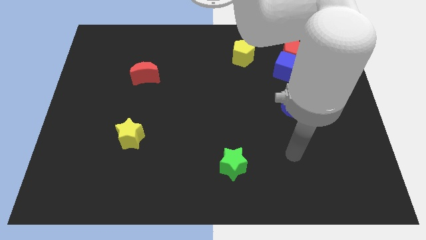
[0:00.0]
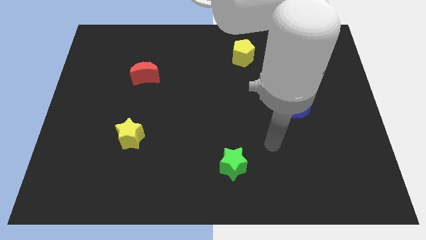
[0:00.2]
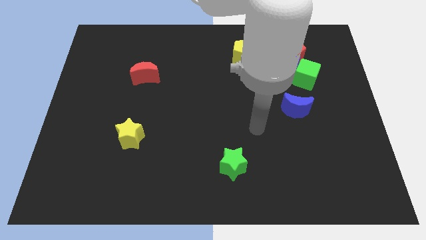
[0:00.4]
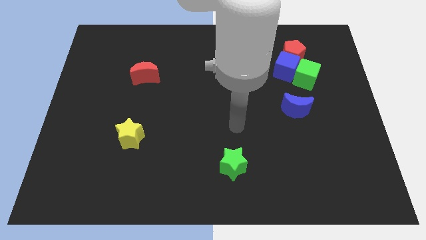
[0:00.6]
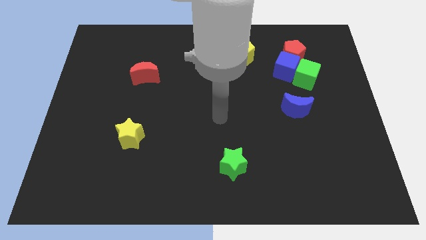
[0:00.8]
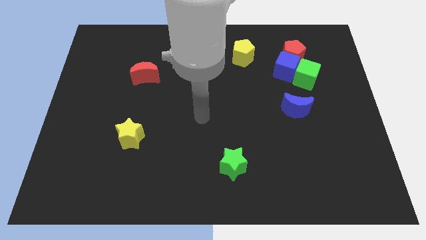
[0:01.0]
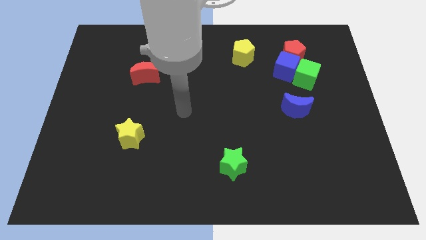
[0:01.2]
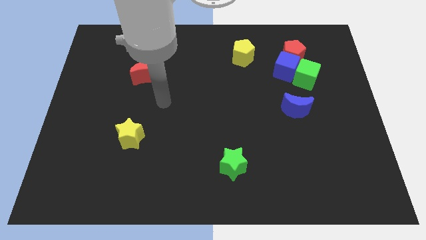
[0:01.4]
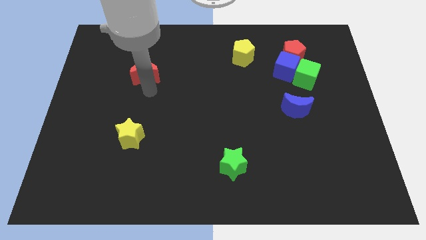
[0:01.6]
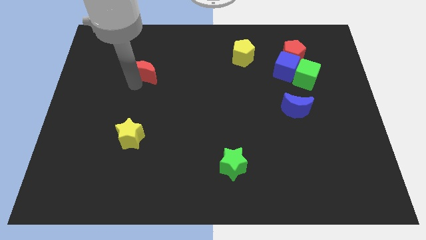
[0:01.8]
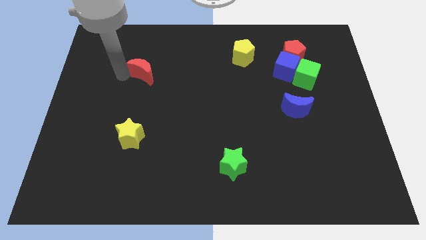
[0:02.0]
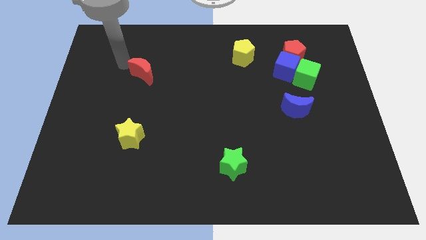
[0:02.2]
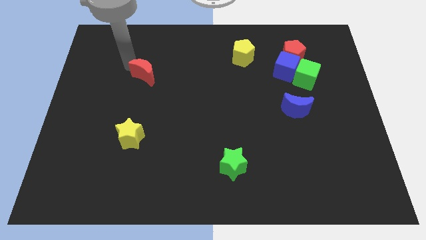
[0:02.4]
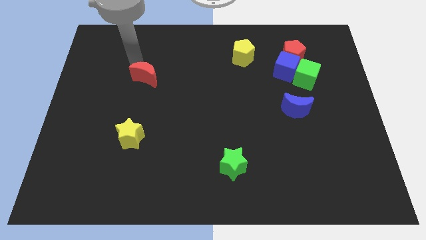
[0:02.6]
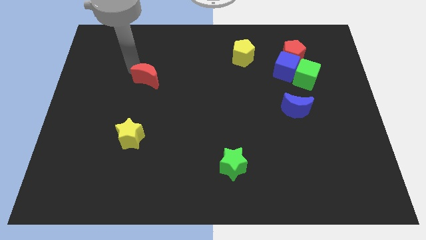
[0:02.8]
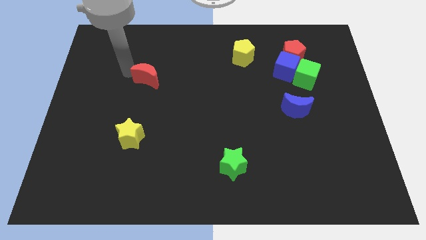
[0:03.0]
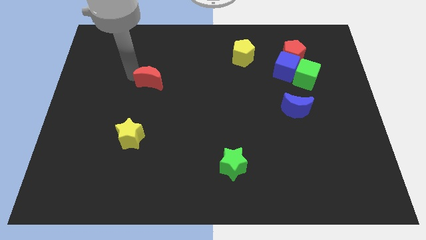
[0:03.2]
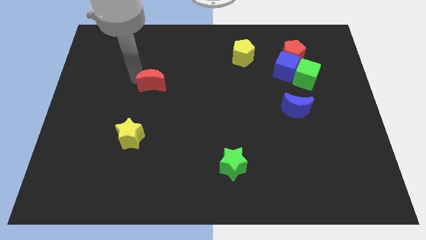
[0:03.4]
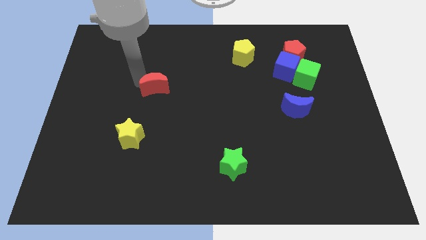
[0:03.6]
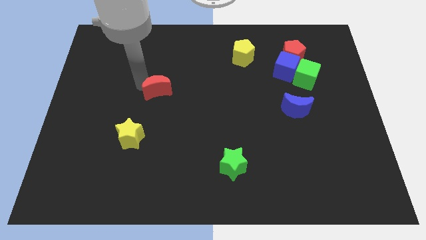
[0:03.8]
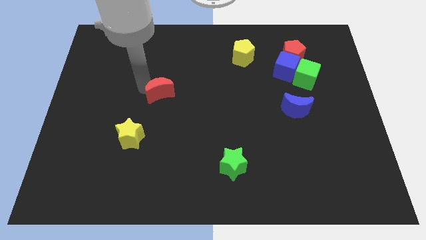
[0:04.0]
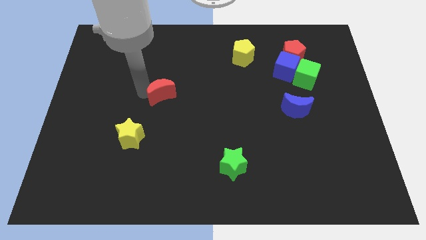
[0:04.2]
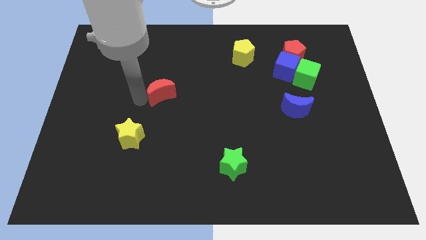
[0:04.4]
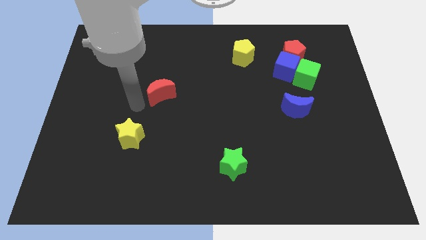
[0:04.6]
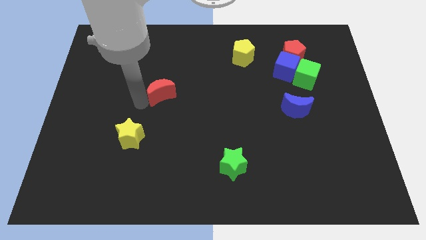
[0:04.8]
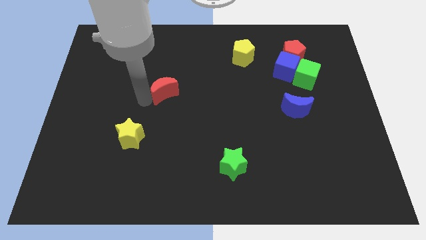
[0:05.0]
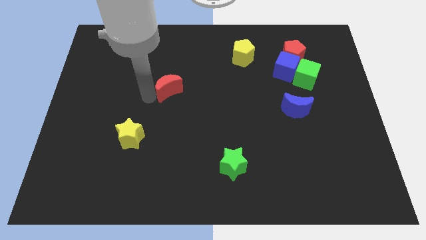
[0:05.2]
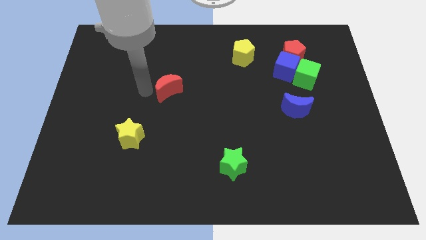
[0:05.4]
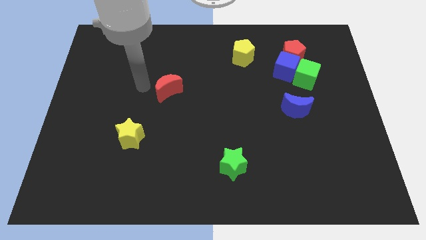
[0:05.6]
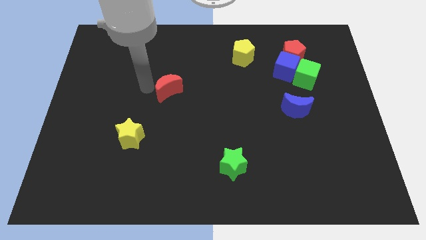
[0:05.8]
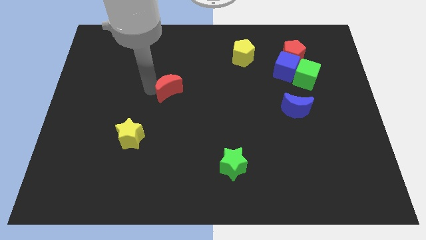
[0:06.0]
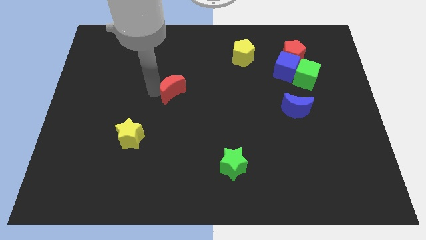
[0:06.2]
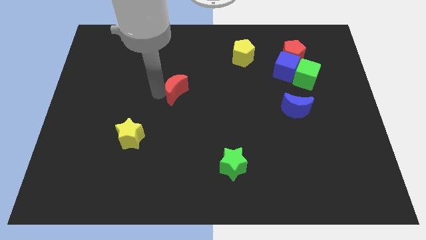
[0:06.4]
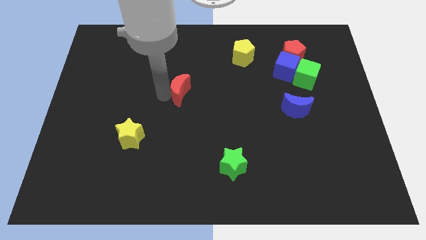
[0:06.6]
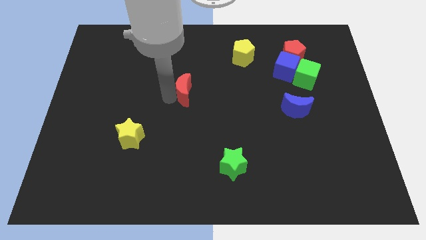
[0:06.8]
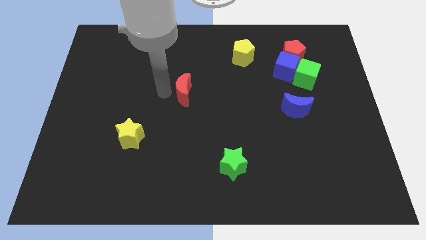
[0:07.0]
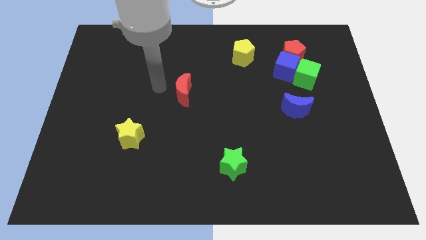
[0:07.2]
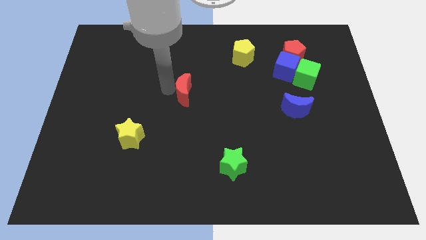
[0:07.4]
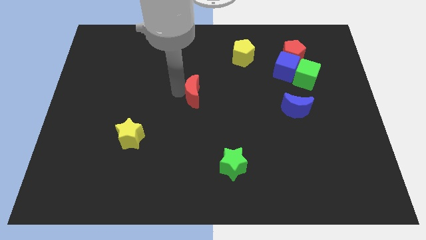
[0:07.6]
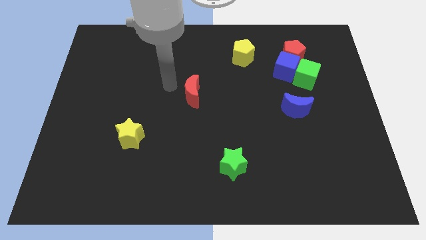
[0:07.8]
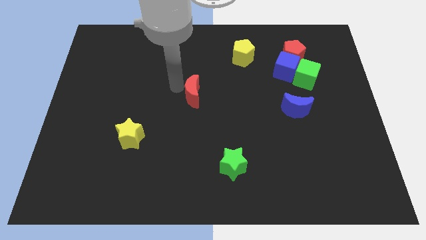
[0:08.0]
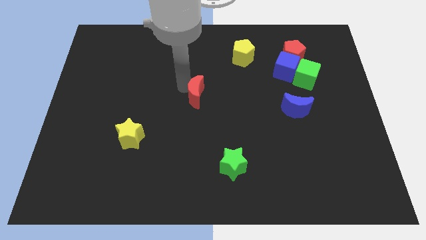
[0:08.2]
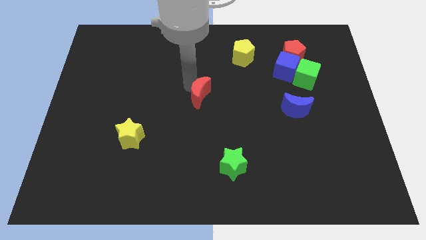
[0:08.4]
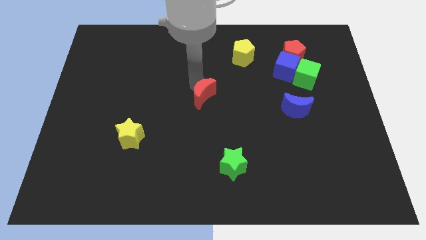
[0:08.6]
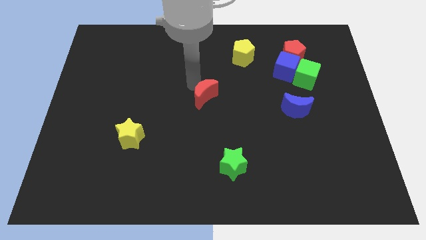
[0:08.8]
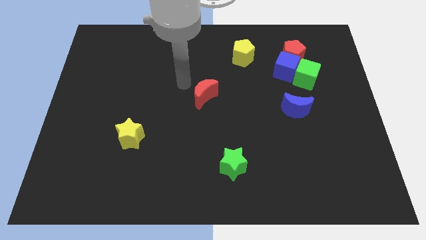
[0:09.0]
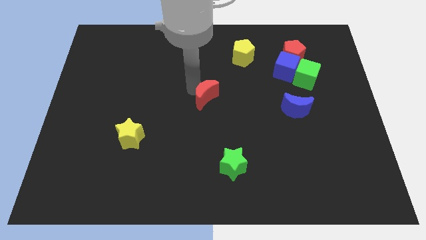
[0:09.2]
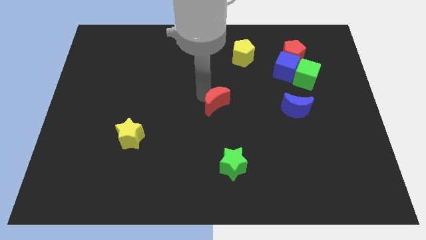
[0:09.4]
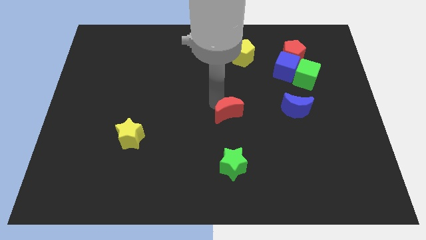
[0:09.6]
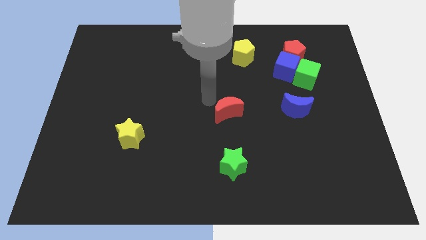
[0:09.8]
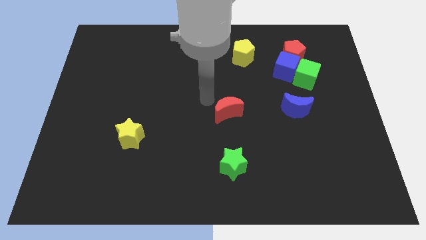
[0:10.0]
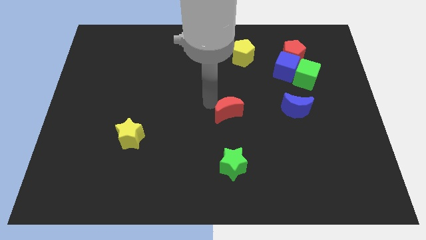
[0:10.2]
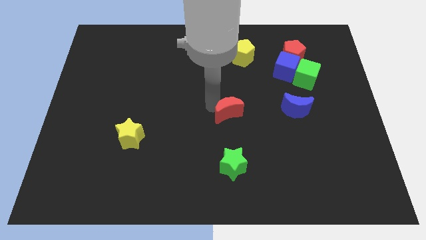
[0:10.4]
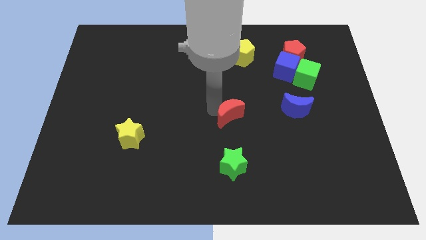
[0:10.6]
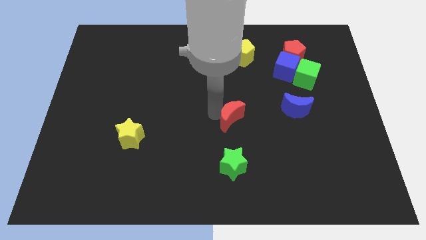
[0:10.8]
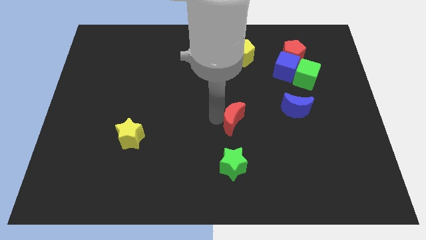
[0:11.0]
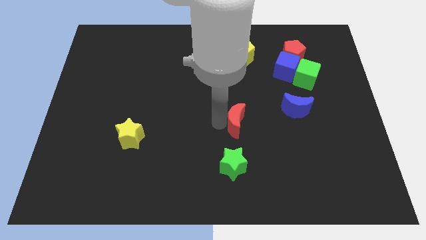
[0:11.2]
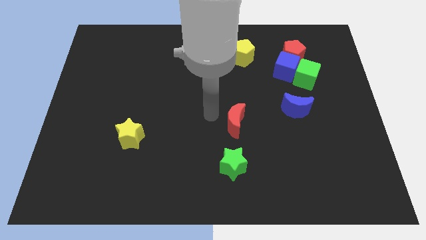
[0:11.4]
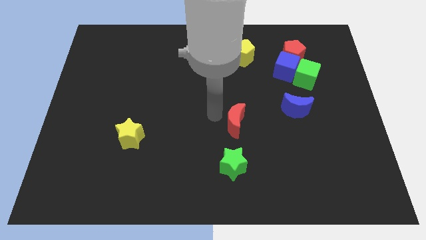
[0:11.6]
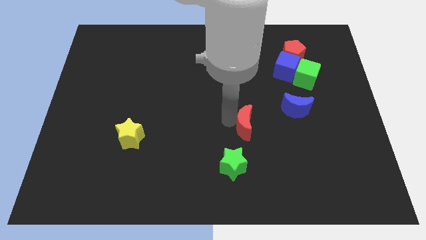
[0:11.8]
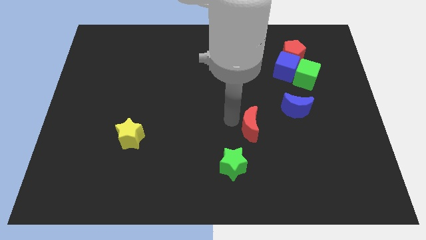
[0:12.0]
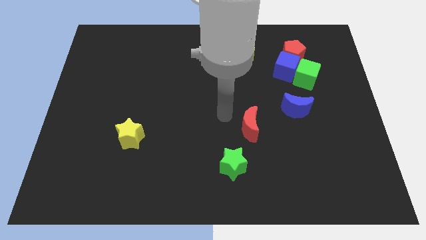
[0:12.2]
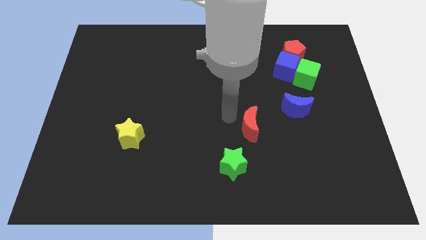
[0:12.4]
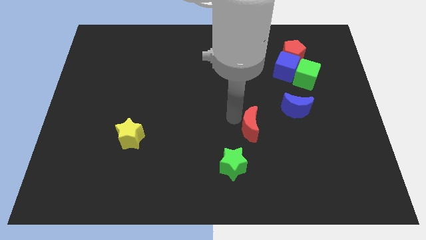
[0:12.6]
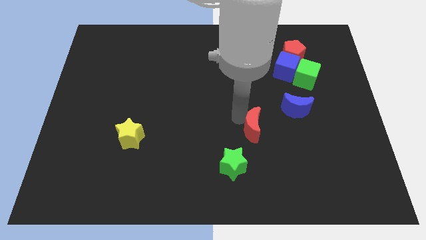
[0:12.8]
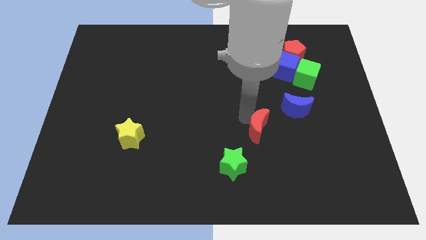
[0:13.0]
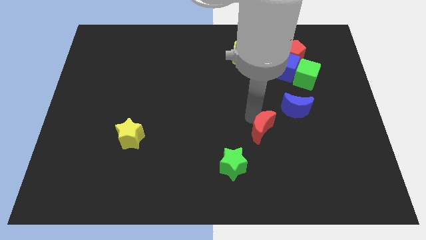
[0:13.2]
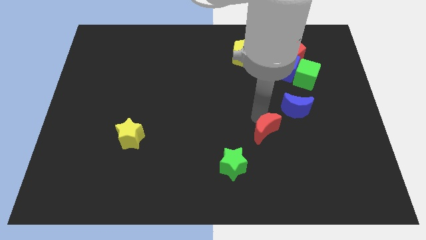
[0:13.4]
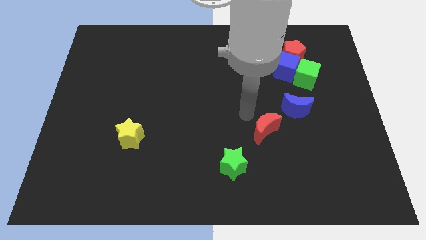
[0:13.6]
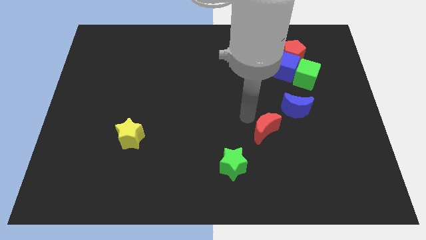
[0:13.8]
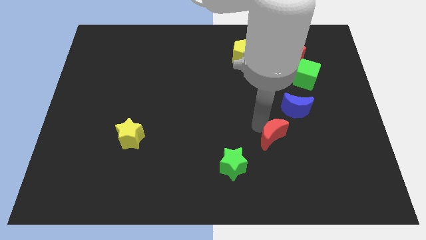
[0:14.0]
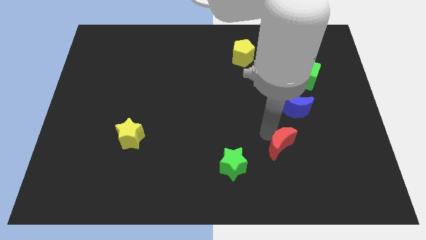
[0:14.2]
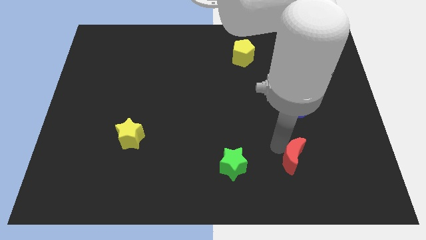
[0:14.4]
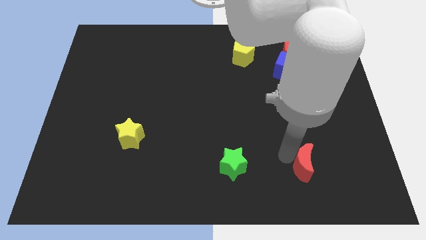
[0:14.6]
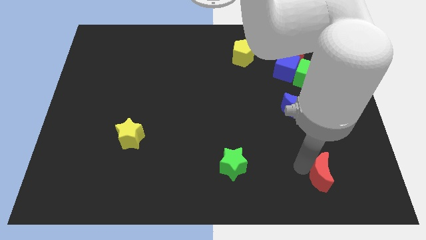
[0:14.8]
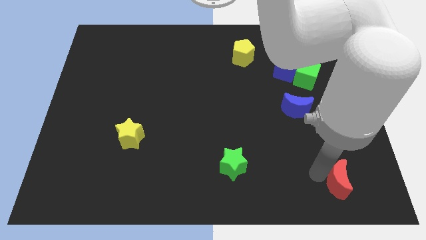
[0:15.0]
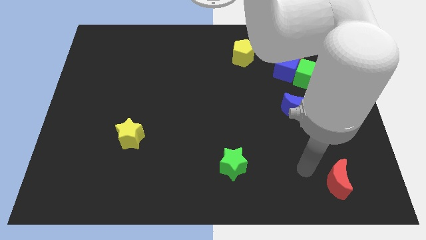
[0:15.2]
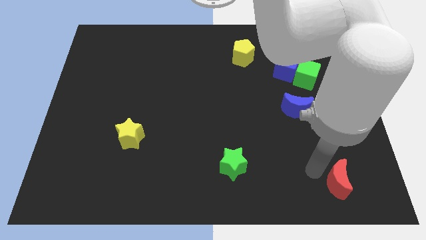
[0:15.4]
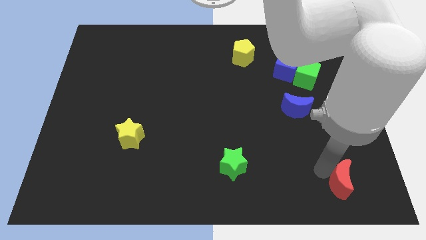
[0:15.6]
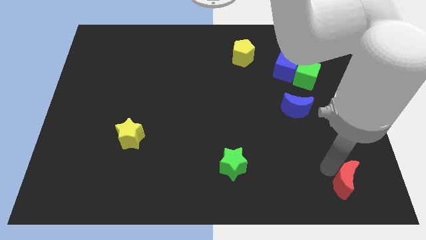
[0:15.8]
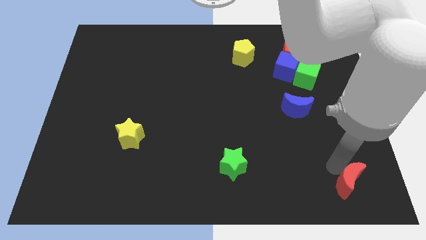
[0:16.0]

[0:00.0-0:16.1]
slide the red moon to the bottom right of the board
